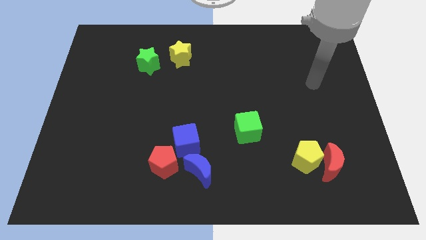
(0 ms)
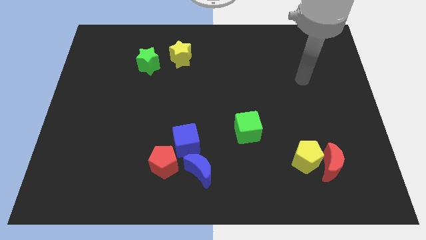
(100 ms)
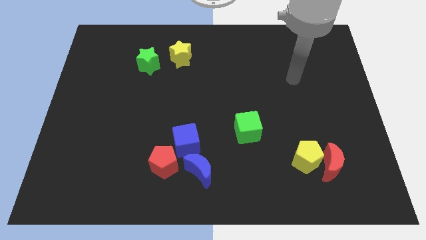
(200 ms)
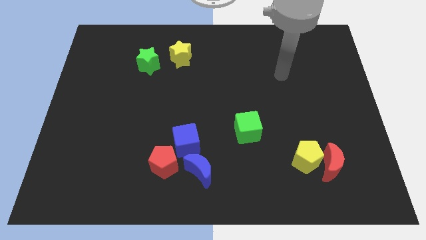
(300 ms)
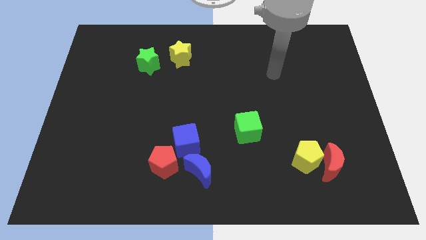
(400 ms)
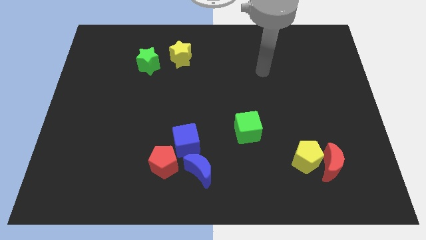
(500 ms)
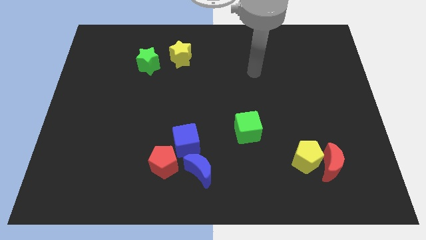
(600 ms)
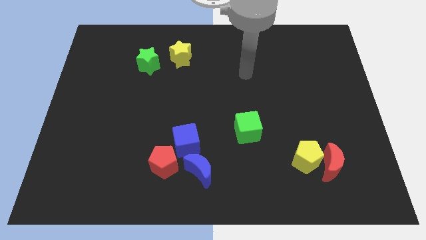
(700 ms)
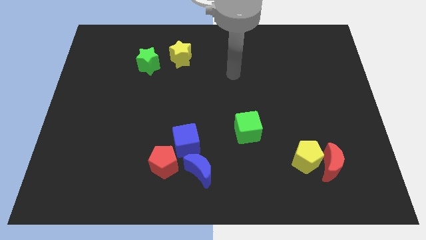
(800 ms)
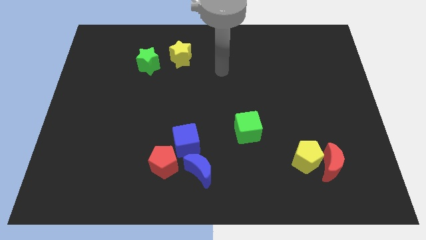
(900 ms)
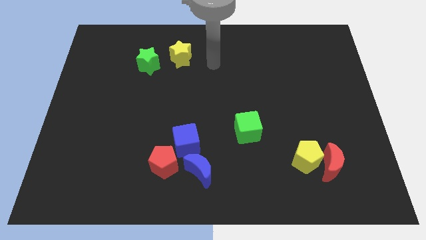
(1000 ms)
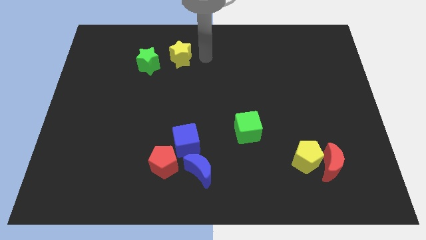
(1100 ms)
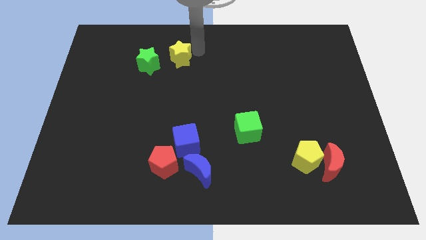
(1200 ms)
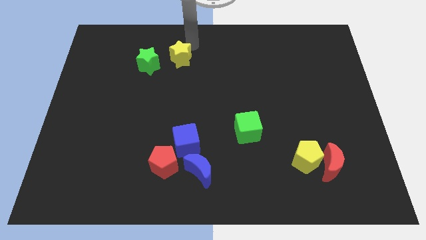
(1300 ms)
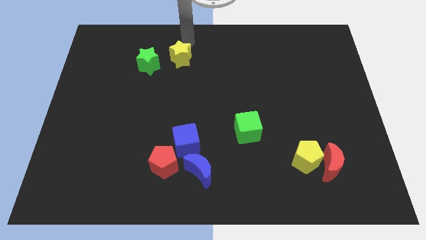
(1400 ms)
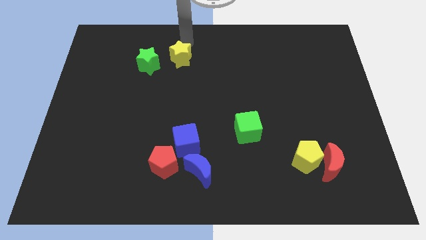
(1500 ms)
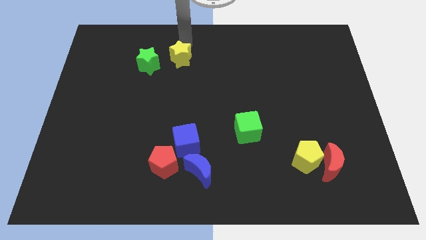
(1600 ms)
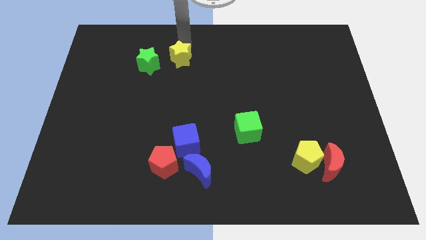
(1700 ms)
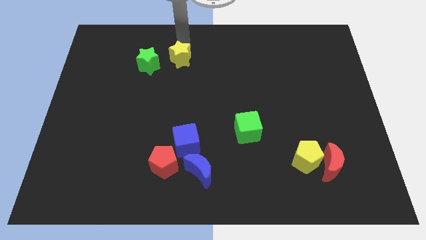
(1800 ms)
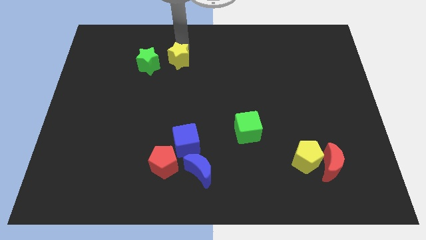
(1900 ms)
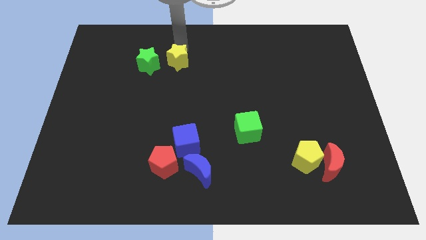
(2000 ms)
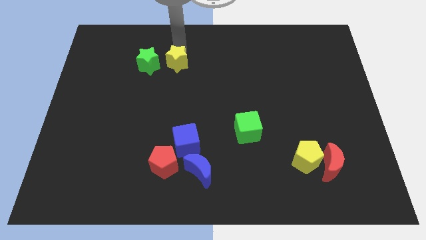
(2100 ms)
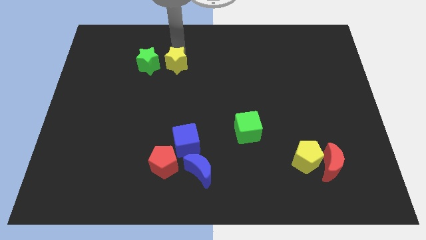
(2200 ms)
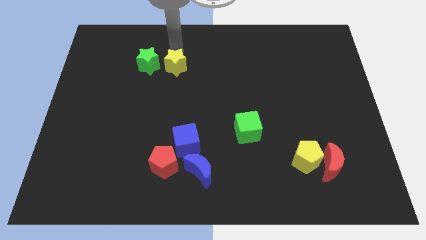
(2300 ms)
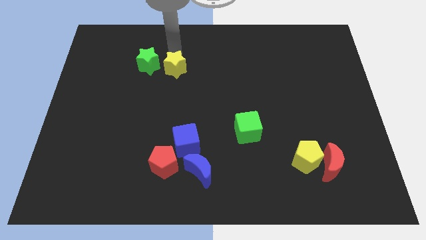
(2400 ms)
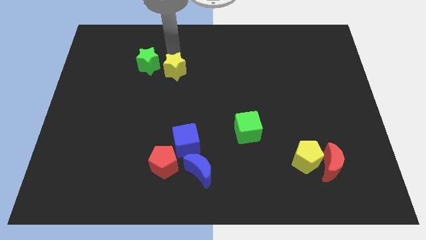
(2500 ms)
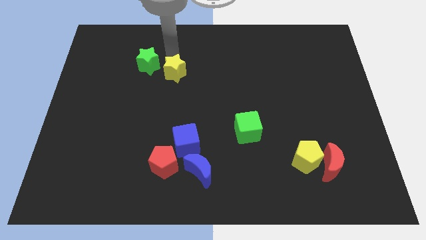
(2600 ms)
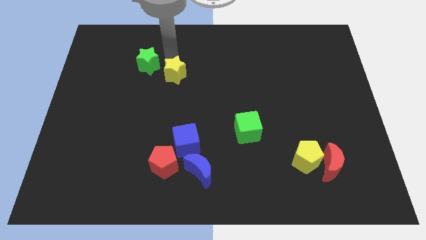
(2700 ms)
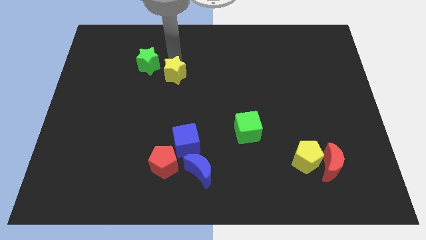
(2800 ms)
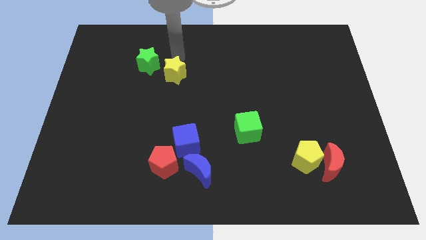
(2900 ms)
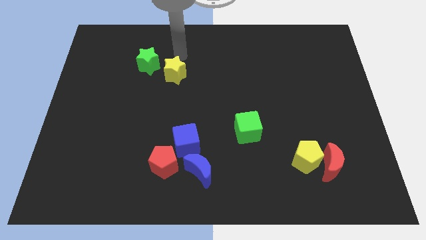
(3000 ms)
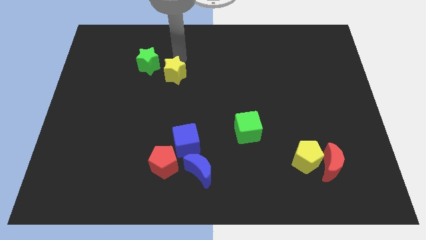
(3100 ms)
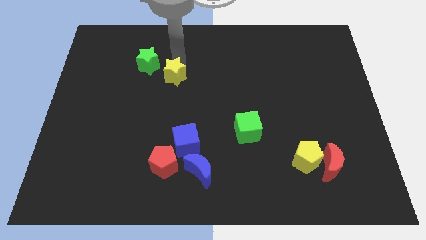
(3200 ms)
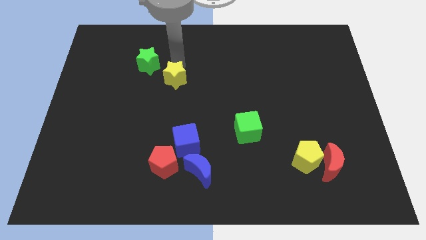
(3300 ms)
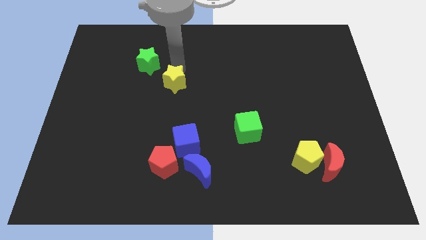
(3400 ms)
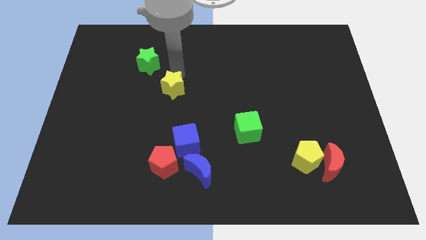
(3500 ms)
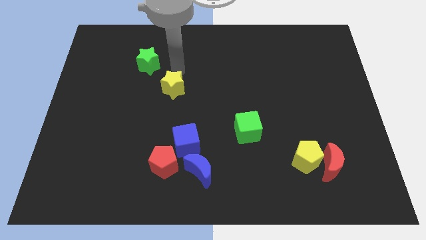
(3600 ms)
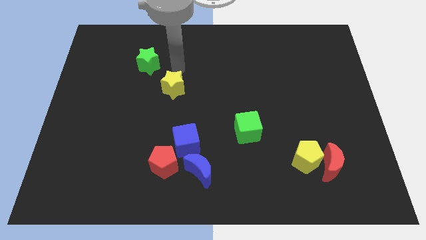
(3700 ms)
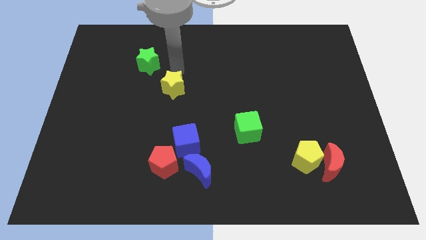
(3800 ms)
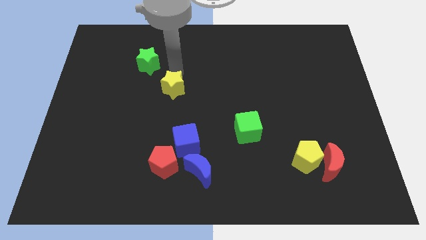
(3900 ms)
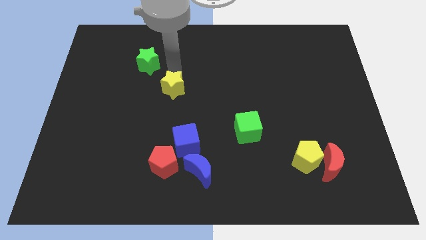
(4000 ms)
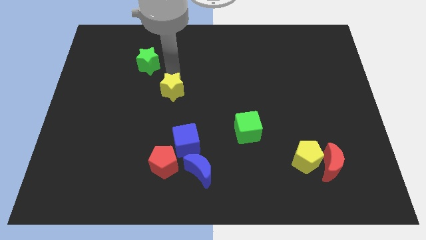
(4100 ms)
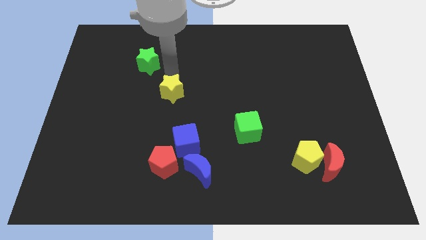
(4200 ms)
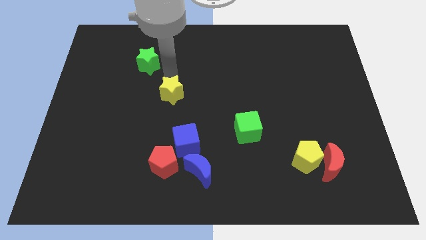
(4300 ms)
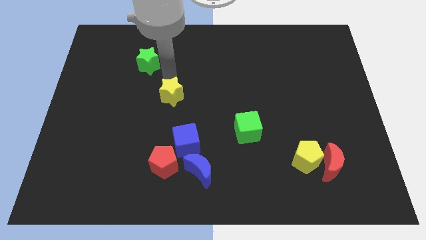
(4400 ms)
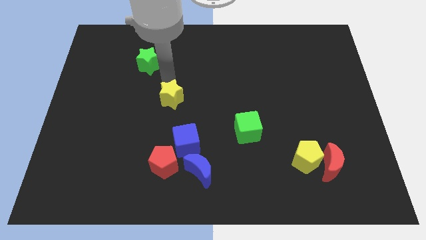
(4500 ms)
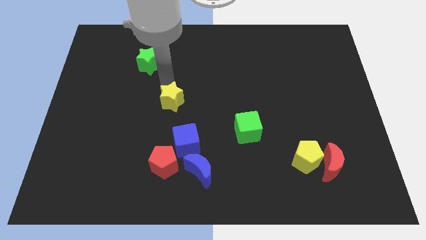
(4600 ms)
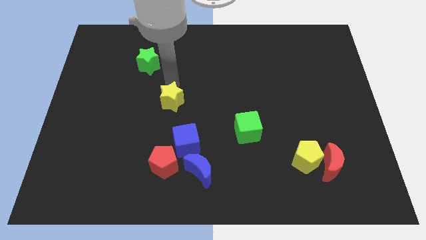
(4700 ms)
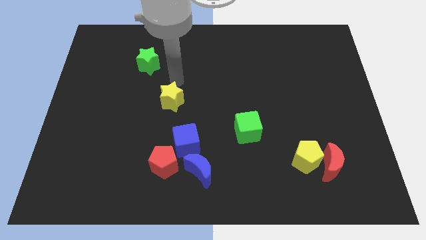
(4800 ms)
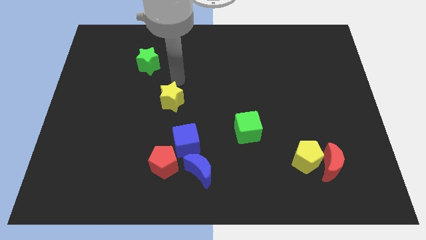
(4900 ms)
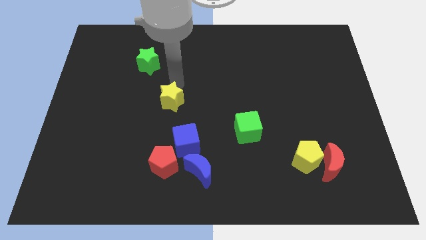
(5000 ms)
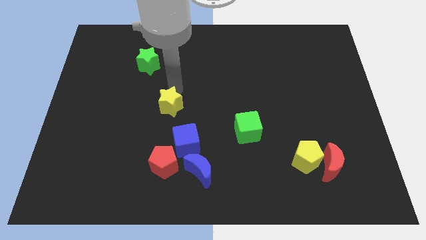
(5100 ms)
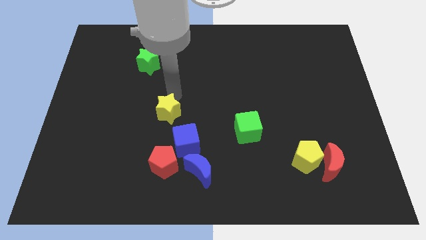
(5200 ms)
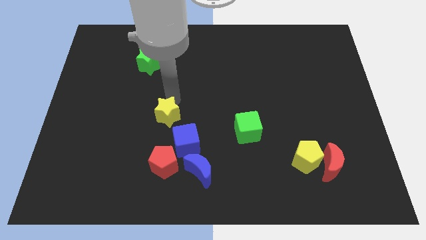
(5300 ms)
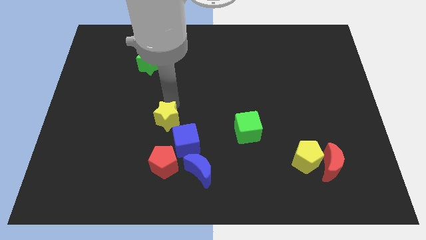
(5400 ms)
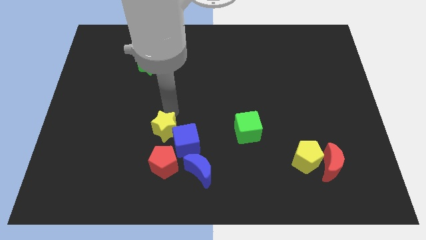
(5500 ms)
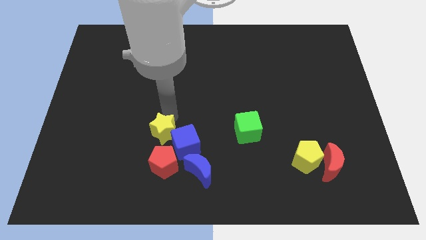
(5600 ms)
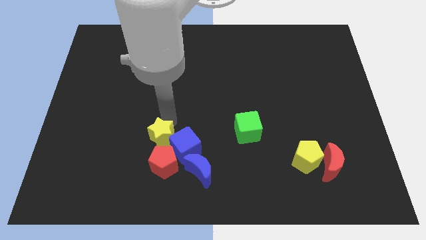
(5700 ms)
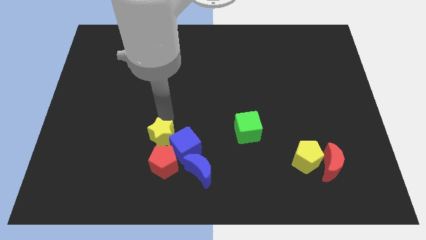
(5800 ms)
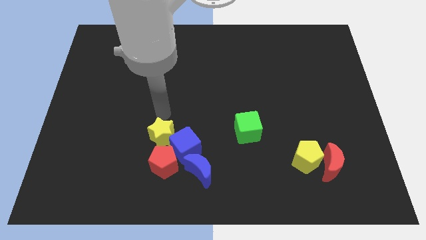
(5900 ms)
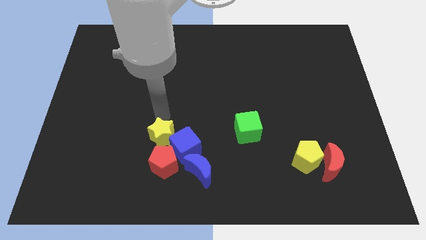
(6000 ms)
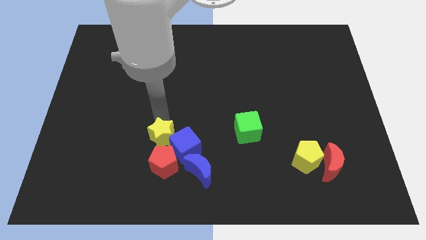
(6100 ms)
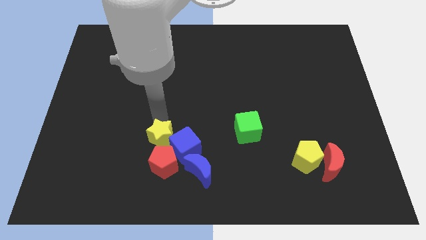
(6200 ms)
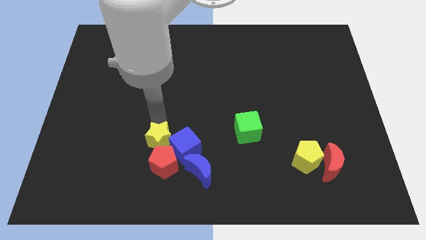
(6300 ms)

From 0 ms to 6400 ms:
push the yellow star towards the red pentagon

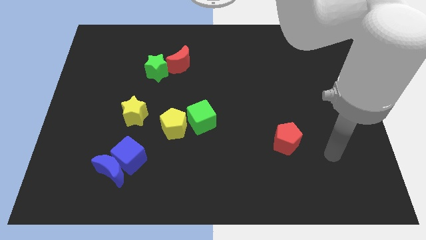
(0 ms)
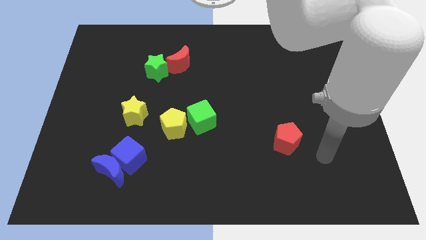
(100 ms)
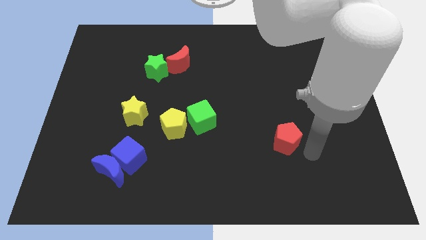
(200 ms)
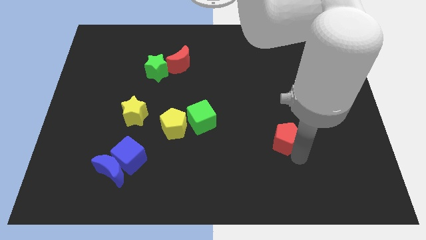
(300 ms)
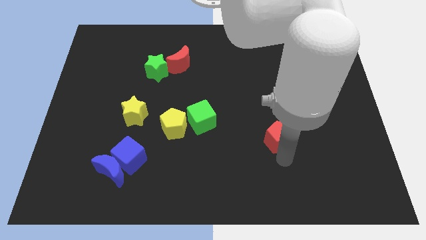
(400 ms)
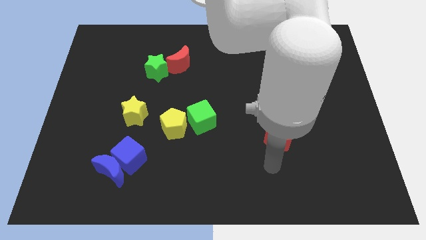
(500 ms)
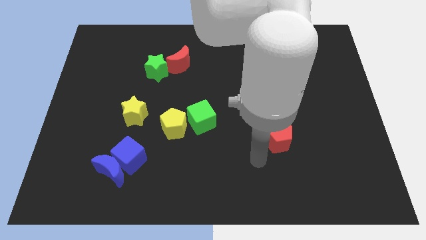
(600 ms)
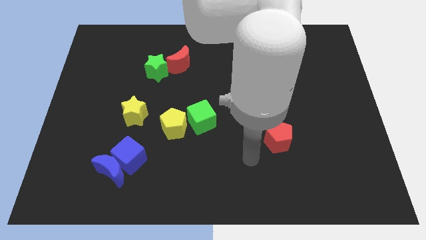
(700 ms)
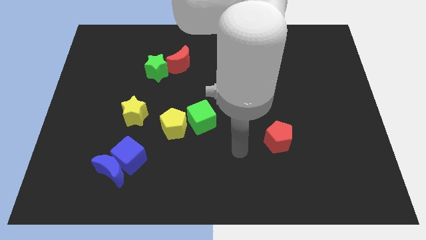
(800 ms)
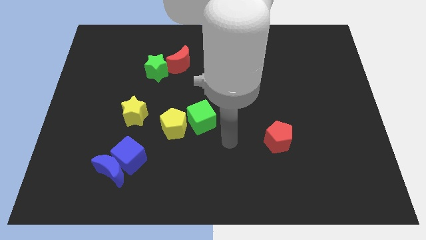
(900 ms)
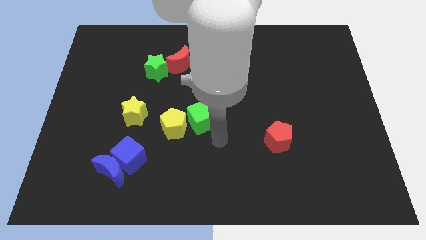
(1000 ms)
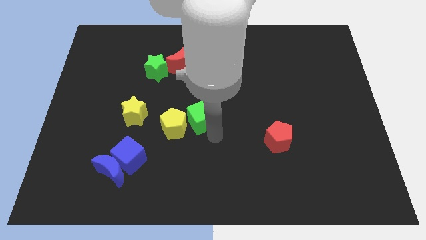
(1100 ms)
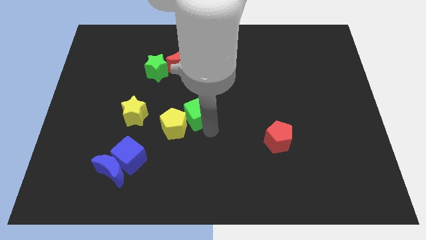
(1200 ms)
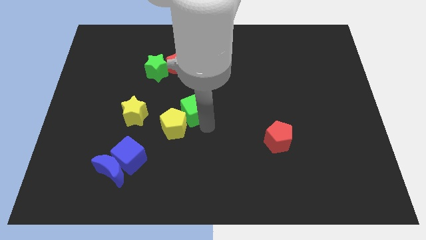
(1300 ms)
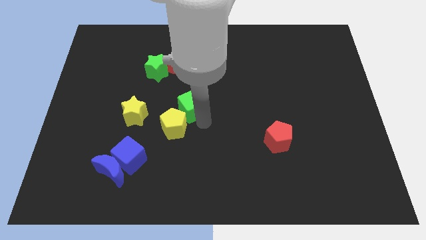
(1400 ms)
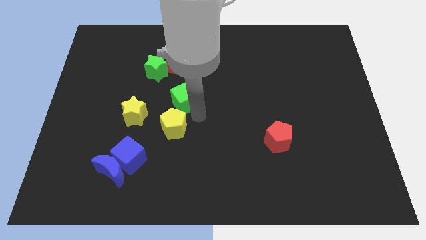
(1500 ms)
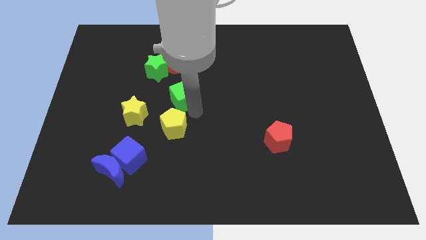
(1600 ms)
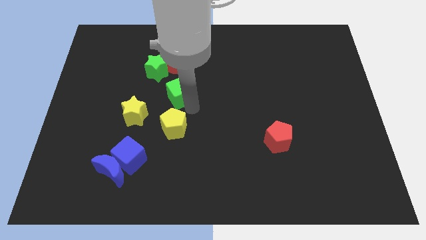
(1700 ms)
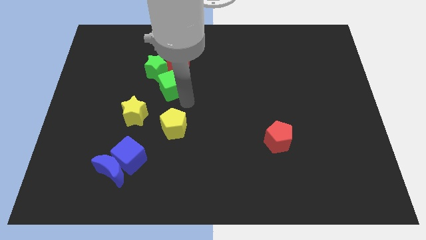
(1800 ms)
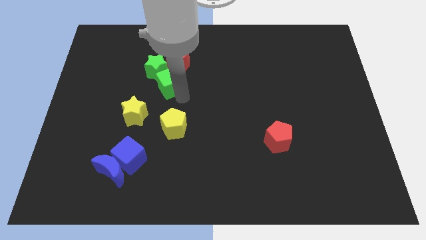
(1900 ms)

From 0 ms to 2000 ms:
push the green cube to the green star
